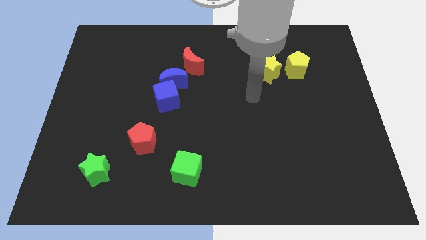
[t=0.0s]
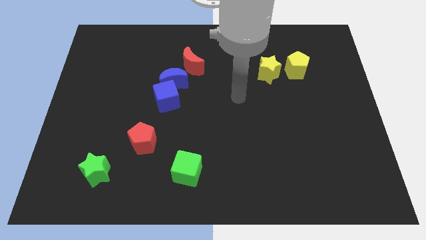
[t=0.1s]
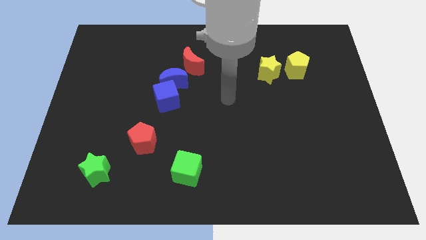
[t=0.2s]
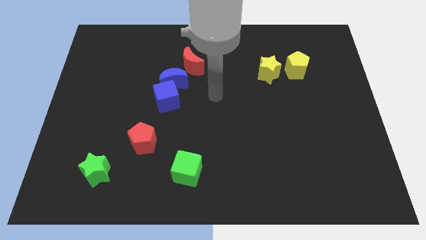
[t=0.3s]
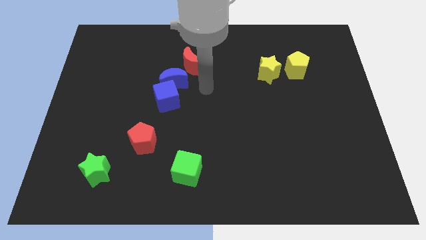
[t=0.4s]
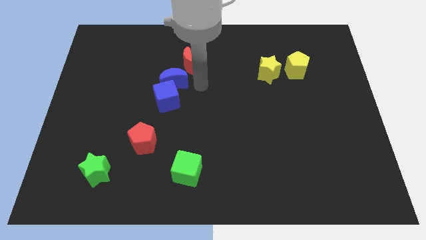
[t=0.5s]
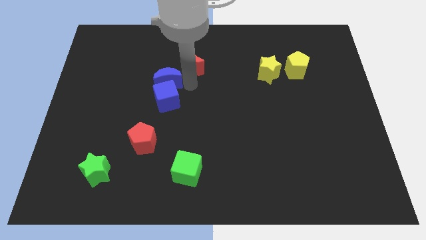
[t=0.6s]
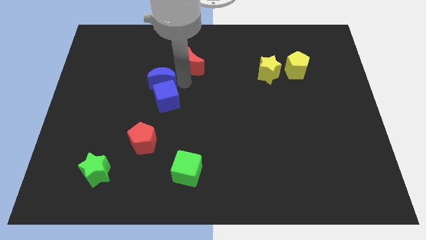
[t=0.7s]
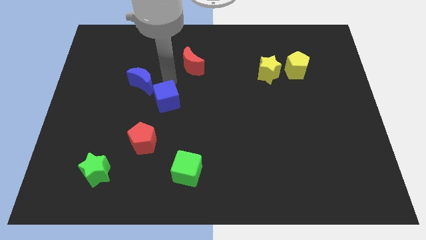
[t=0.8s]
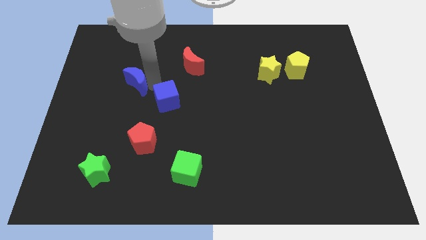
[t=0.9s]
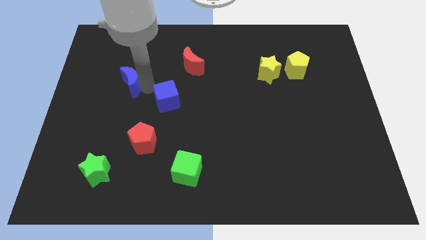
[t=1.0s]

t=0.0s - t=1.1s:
separate the blue cube from the blue moon

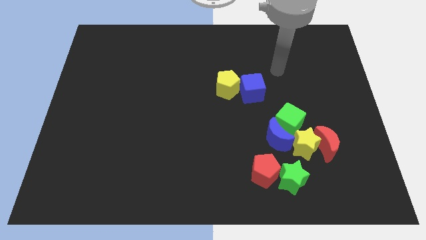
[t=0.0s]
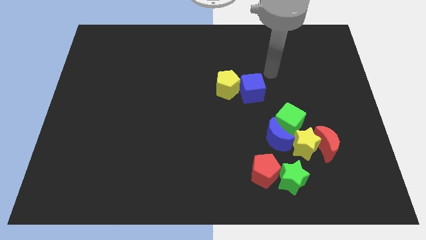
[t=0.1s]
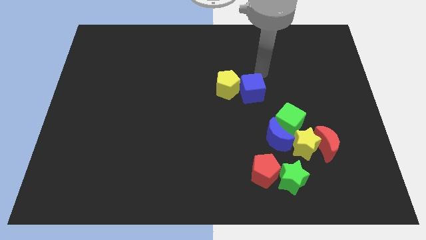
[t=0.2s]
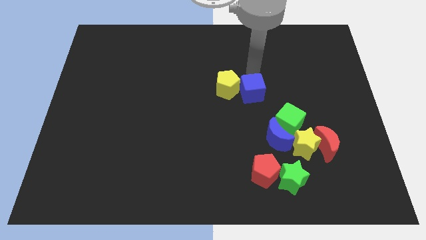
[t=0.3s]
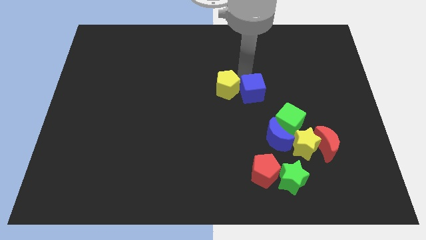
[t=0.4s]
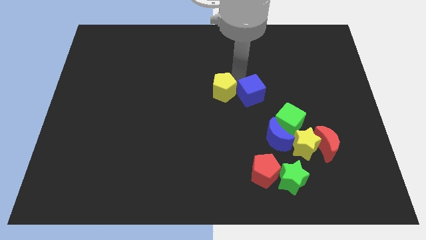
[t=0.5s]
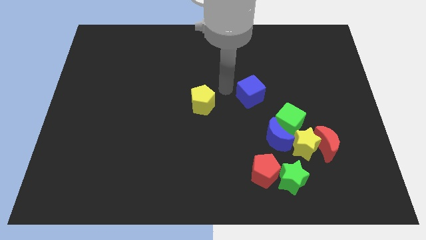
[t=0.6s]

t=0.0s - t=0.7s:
pull the blue cube apart from the yellow pentagon

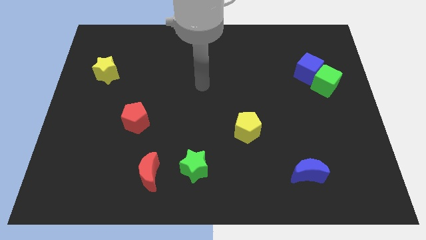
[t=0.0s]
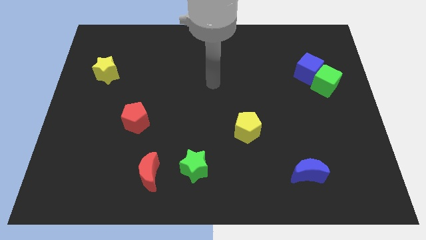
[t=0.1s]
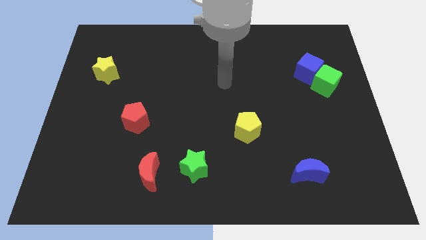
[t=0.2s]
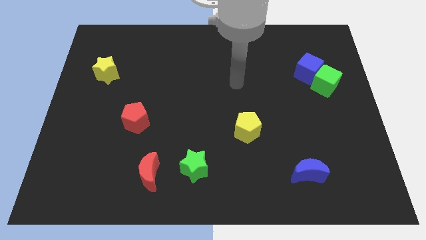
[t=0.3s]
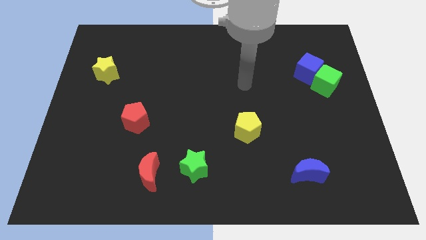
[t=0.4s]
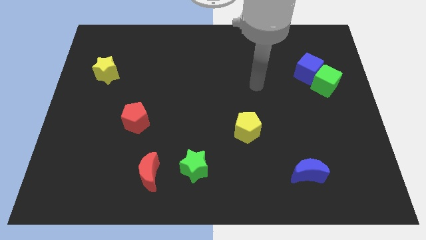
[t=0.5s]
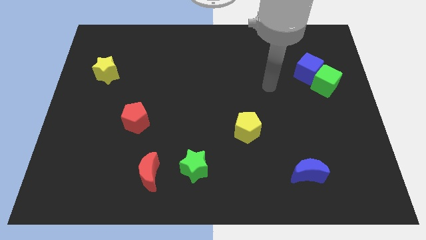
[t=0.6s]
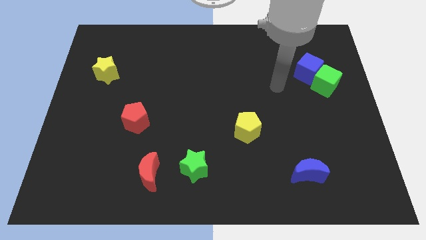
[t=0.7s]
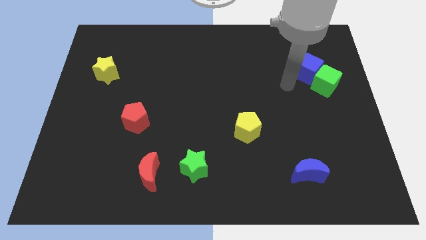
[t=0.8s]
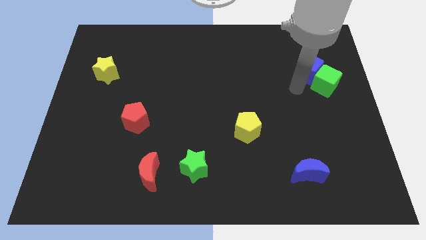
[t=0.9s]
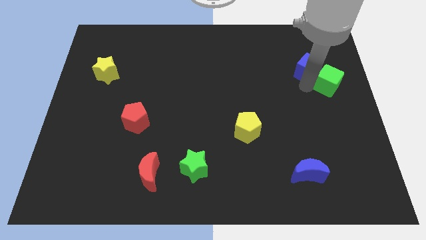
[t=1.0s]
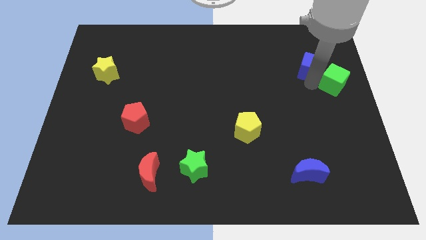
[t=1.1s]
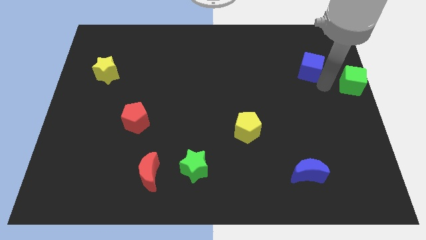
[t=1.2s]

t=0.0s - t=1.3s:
move the blue cube away from the green cube

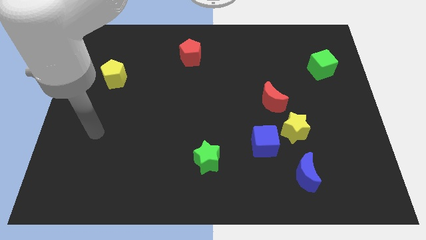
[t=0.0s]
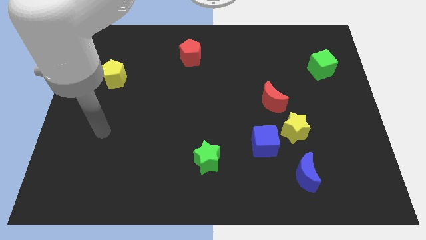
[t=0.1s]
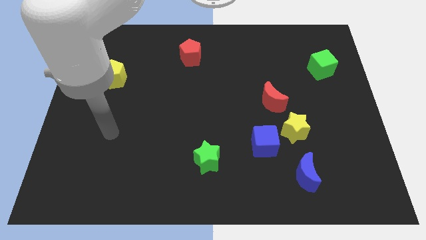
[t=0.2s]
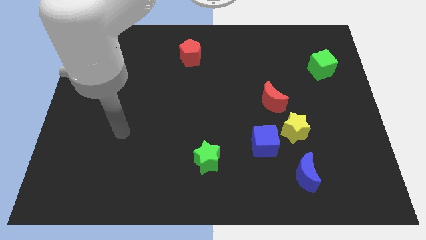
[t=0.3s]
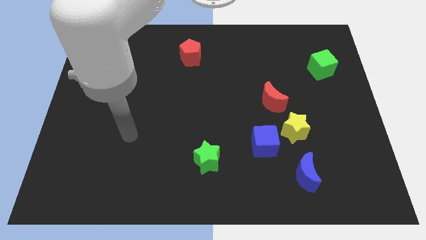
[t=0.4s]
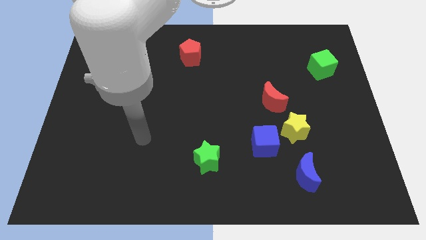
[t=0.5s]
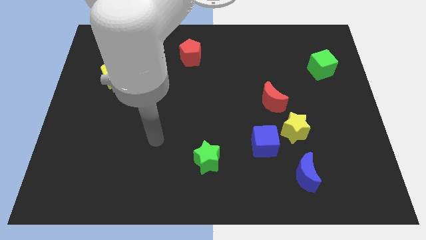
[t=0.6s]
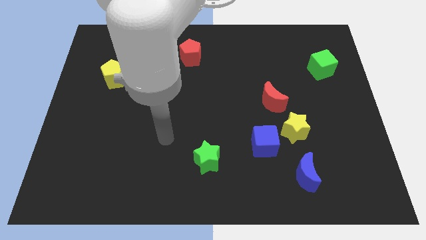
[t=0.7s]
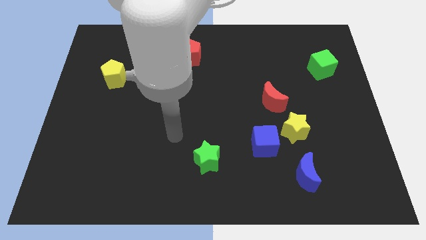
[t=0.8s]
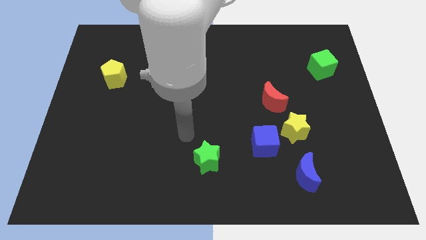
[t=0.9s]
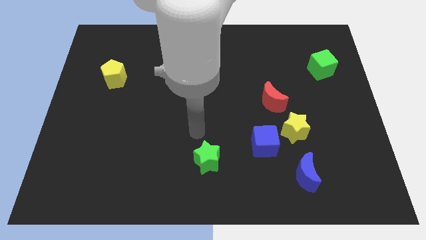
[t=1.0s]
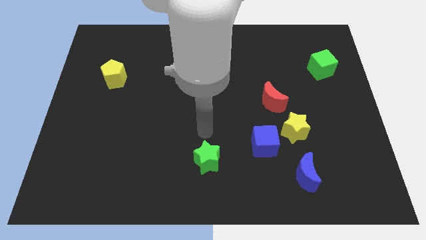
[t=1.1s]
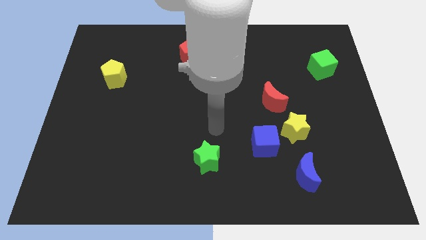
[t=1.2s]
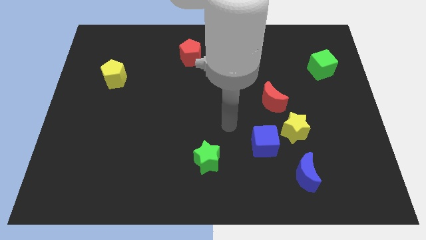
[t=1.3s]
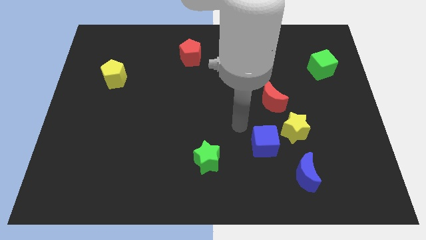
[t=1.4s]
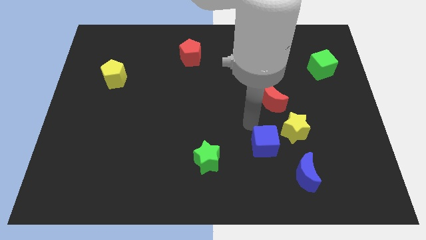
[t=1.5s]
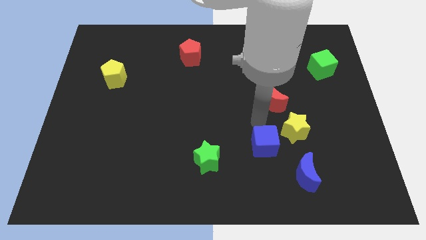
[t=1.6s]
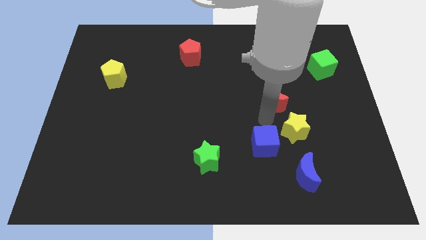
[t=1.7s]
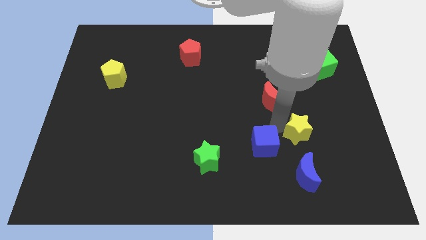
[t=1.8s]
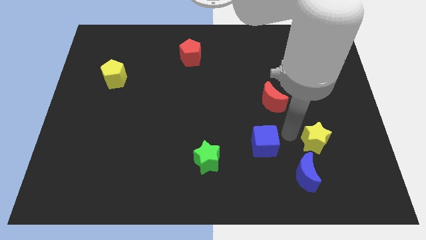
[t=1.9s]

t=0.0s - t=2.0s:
pull the blue cube apart from the yellow star

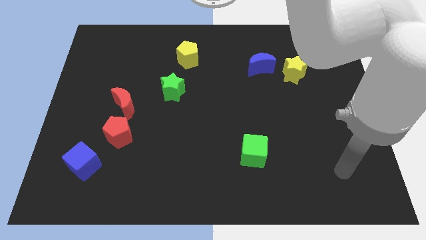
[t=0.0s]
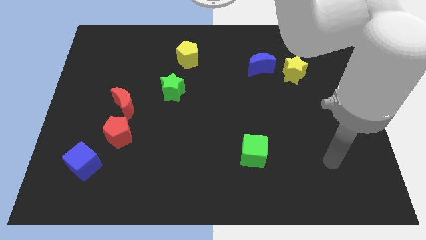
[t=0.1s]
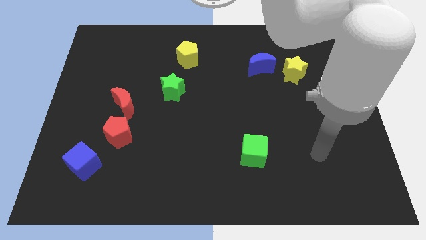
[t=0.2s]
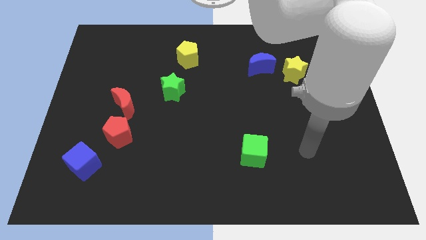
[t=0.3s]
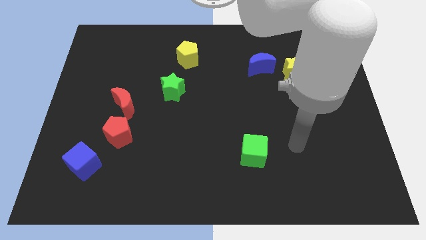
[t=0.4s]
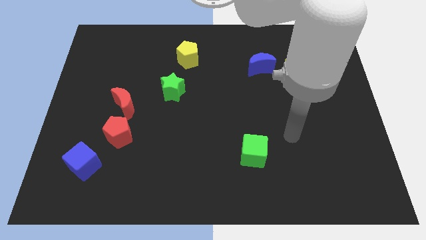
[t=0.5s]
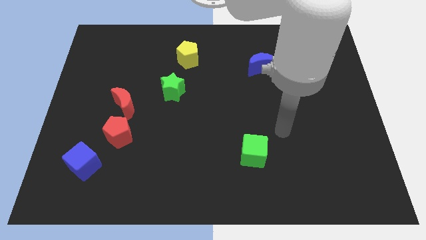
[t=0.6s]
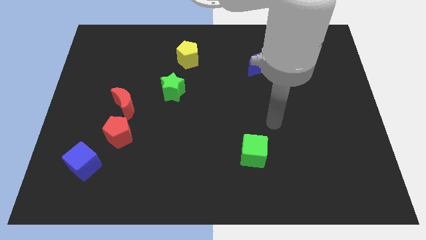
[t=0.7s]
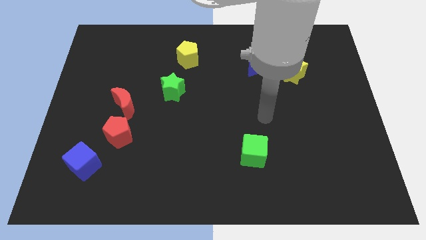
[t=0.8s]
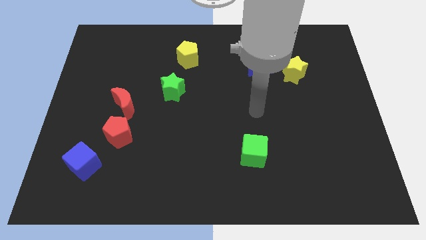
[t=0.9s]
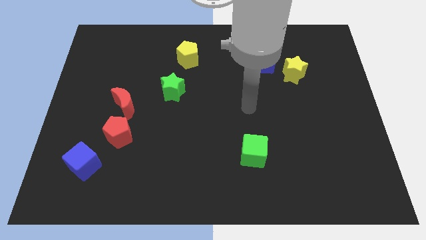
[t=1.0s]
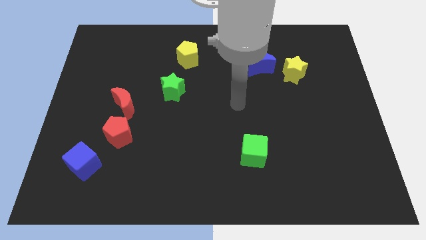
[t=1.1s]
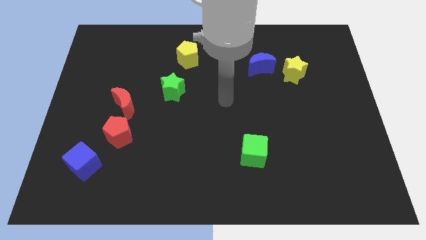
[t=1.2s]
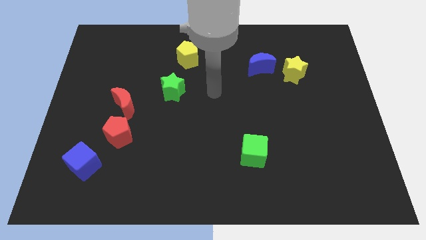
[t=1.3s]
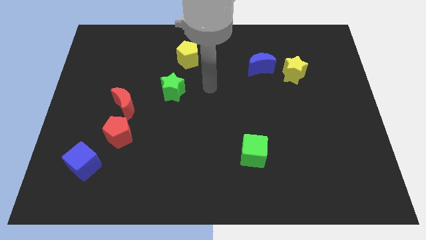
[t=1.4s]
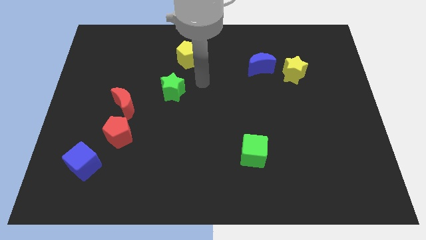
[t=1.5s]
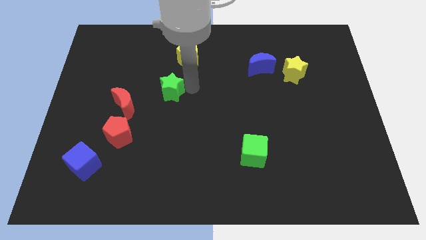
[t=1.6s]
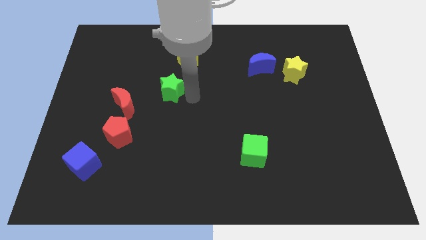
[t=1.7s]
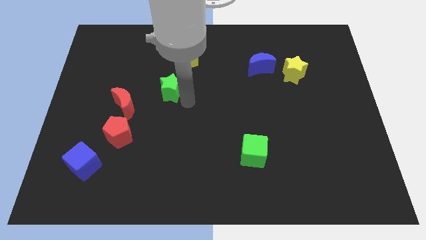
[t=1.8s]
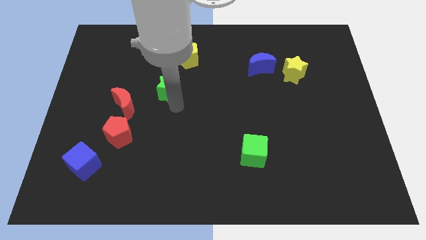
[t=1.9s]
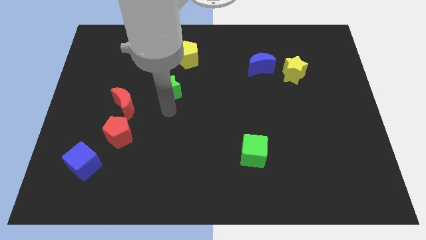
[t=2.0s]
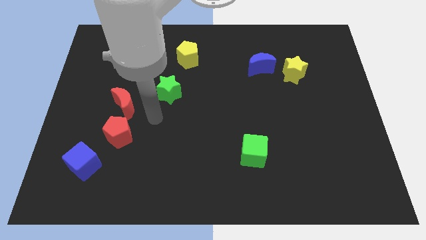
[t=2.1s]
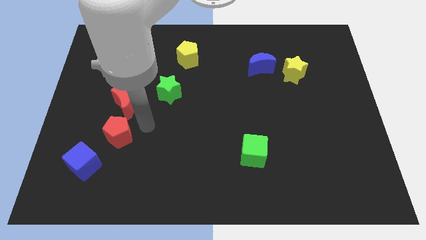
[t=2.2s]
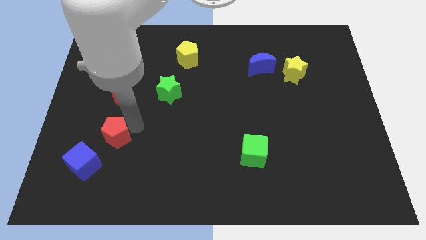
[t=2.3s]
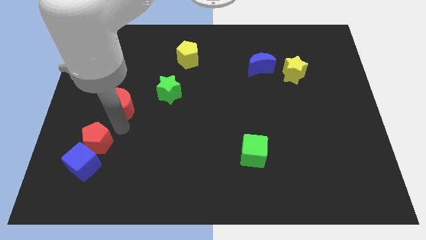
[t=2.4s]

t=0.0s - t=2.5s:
move the red moon away from the red pentagon

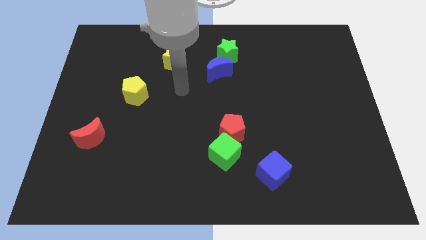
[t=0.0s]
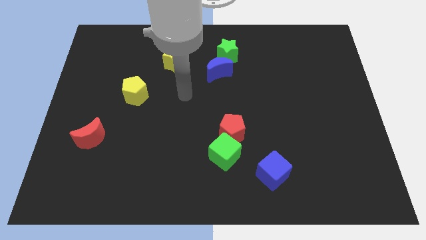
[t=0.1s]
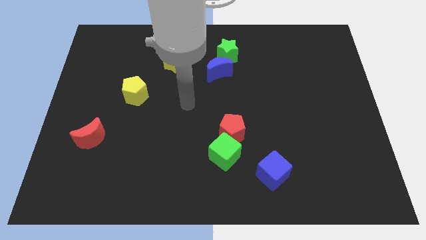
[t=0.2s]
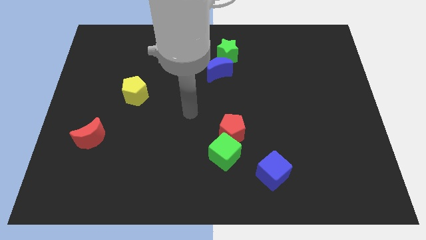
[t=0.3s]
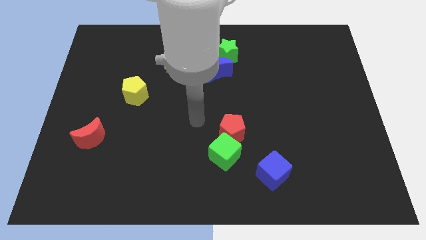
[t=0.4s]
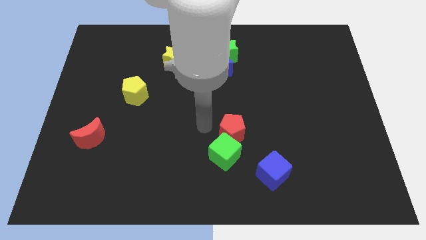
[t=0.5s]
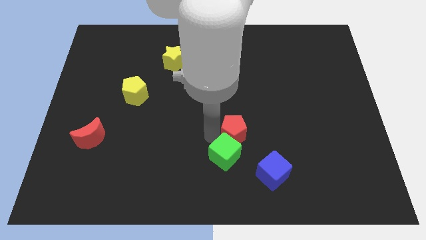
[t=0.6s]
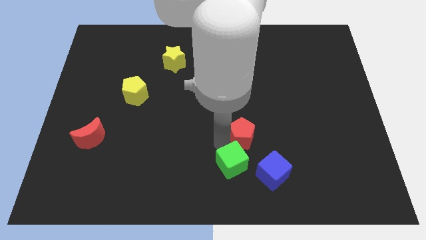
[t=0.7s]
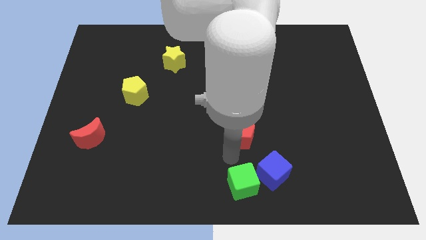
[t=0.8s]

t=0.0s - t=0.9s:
separate the red pentagon from the green cube

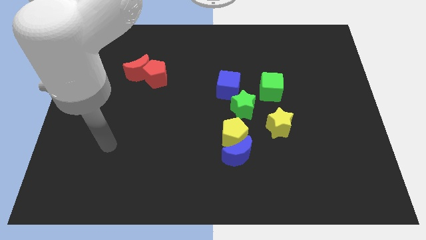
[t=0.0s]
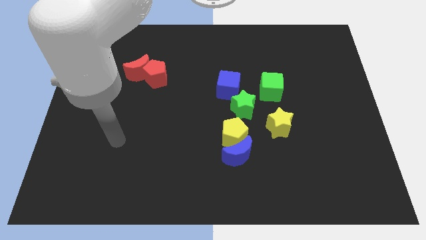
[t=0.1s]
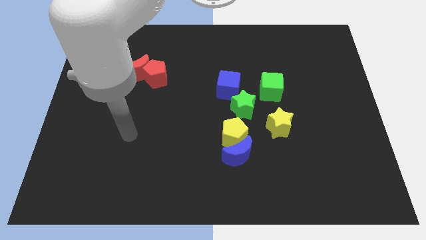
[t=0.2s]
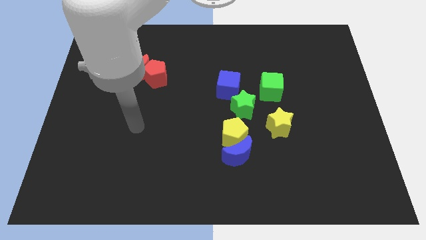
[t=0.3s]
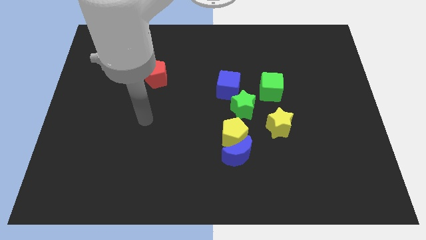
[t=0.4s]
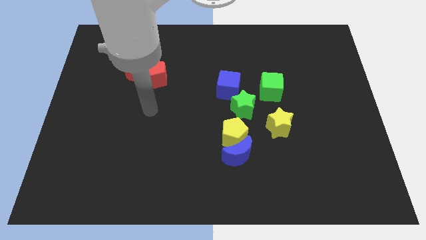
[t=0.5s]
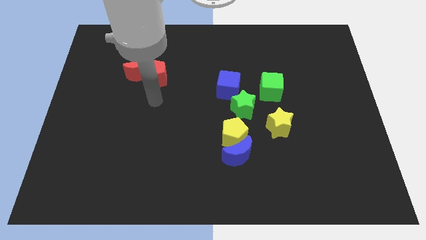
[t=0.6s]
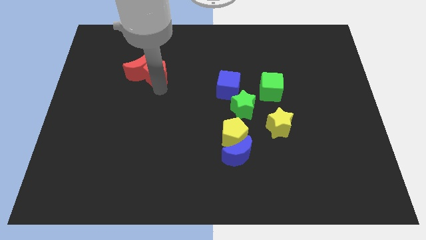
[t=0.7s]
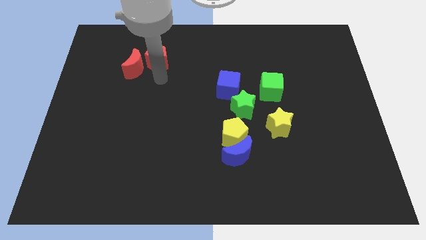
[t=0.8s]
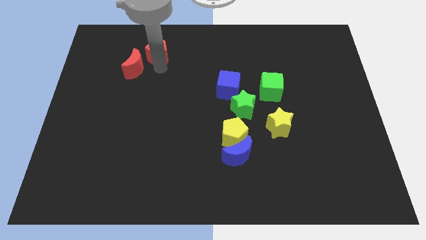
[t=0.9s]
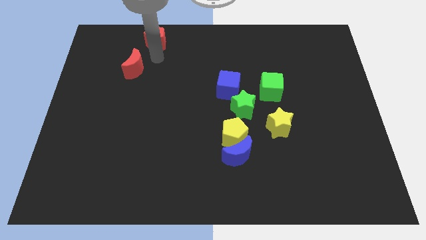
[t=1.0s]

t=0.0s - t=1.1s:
separate the red moon from the red pentagon
